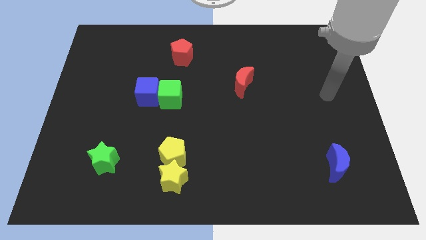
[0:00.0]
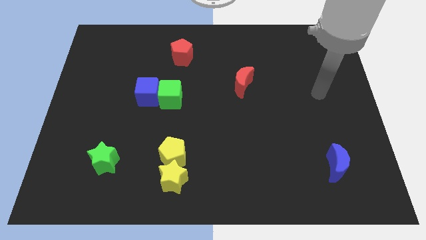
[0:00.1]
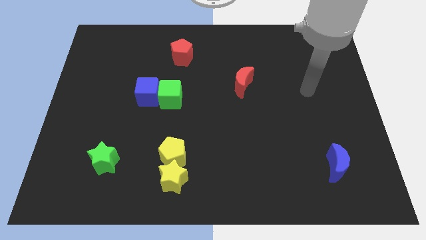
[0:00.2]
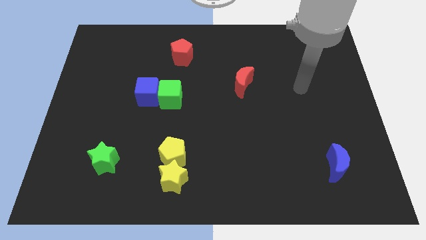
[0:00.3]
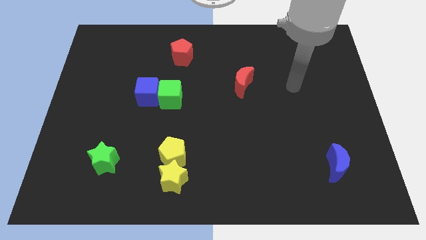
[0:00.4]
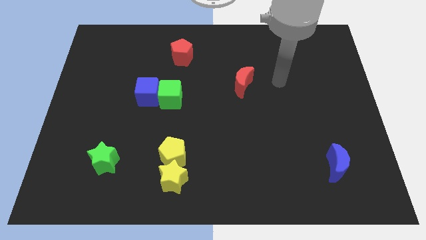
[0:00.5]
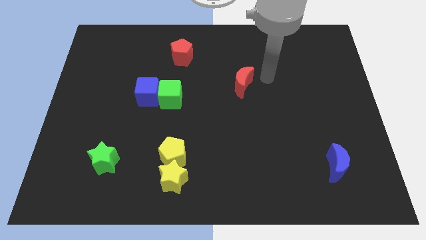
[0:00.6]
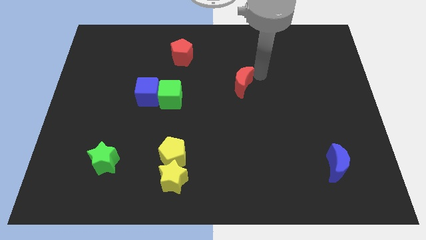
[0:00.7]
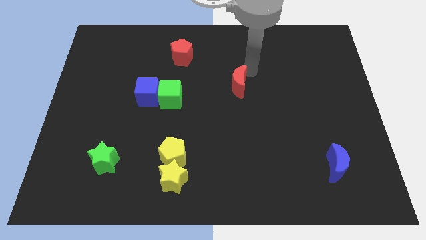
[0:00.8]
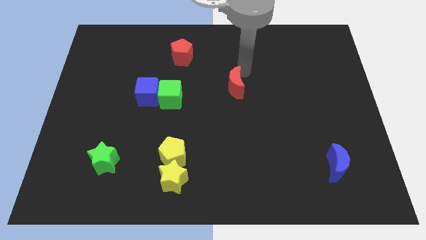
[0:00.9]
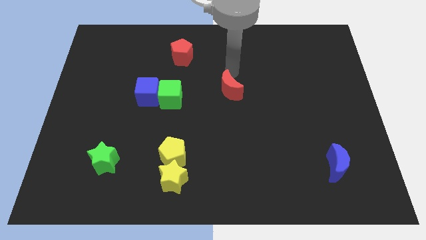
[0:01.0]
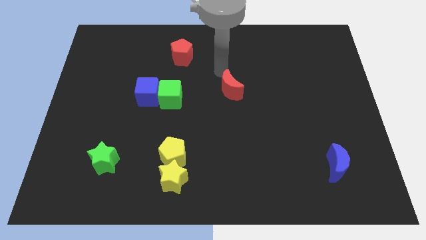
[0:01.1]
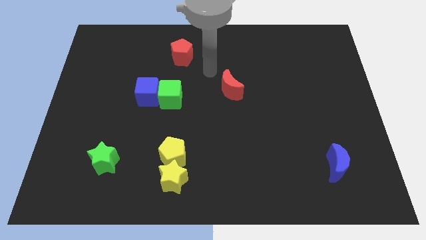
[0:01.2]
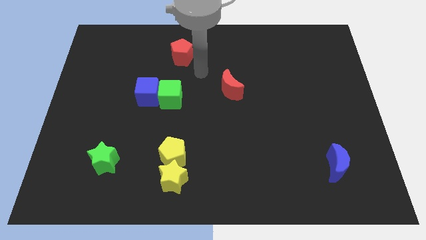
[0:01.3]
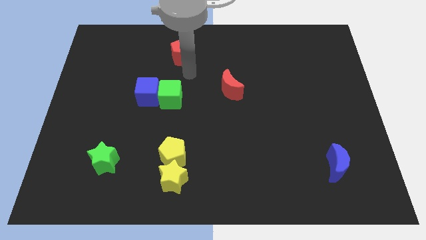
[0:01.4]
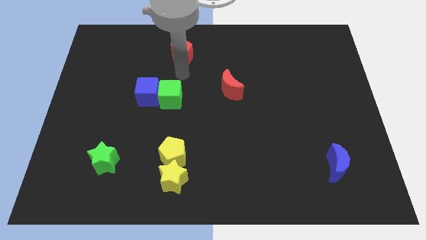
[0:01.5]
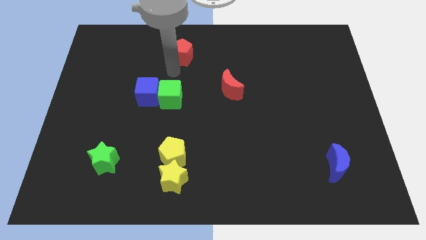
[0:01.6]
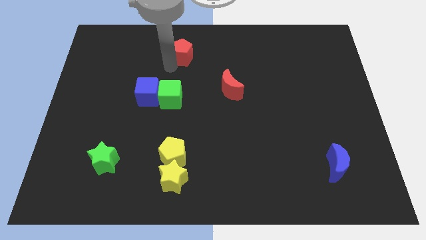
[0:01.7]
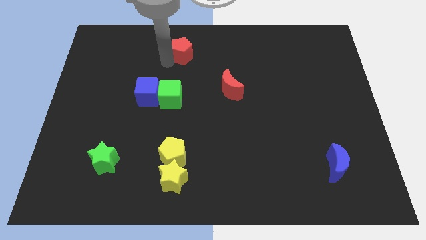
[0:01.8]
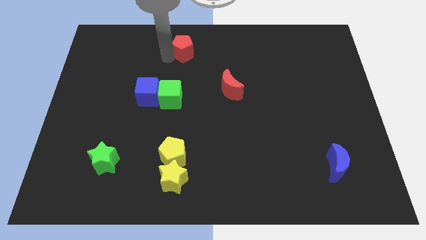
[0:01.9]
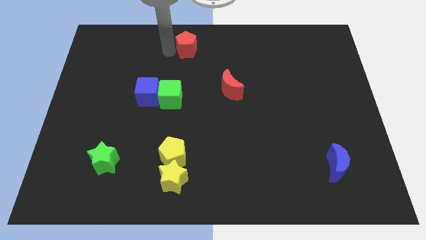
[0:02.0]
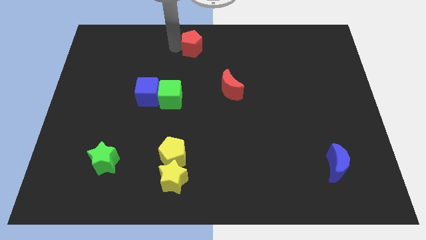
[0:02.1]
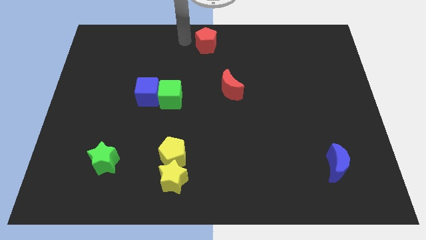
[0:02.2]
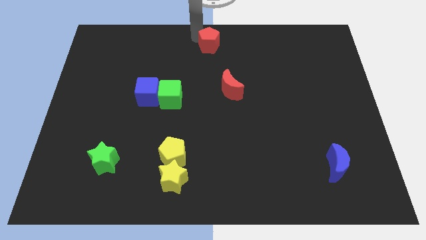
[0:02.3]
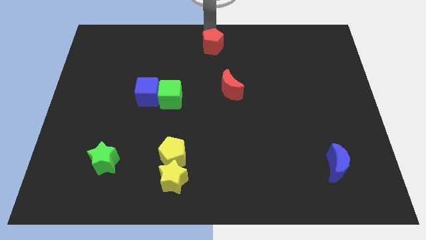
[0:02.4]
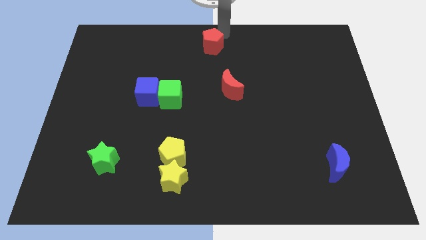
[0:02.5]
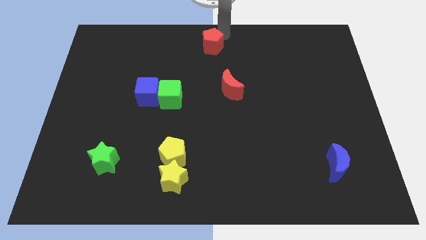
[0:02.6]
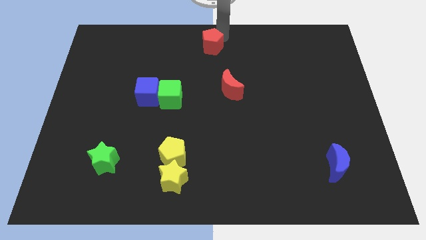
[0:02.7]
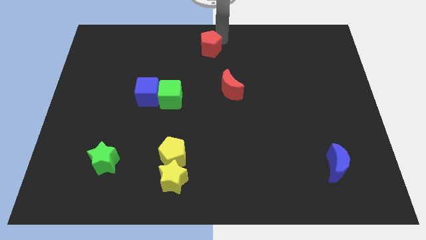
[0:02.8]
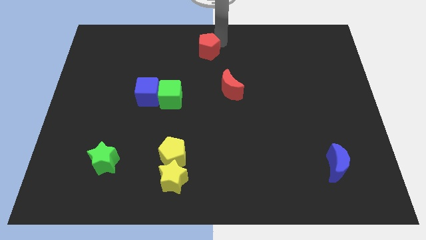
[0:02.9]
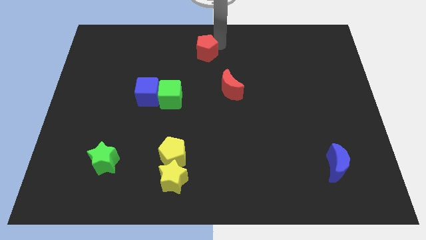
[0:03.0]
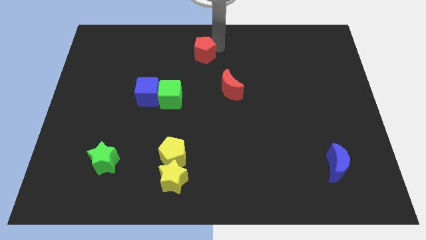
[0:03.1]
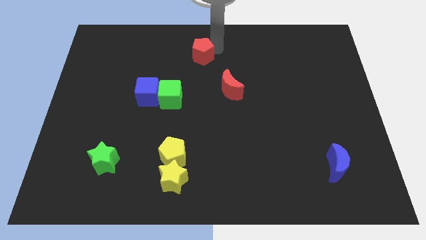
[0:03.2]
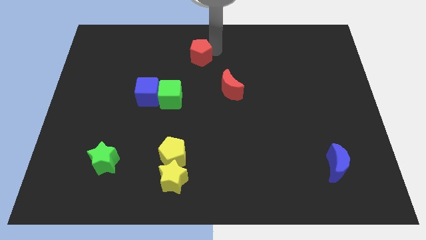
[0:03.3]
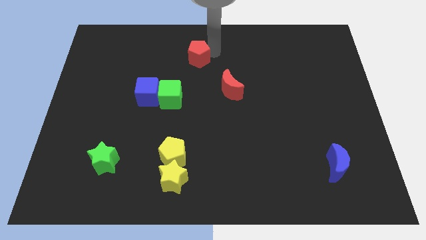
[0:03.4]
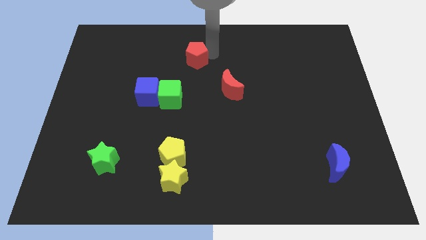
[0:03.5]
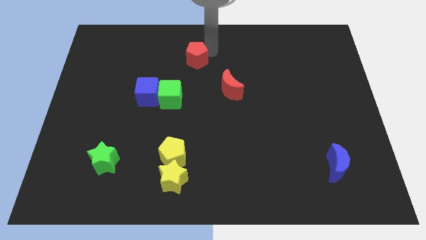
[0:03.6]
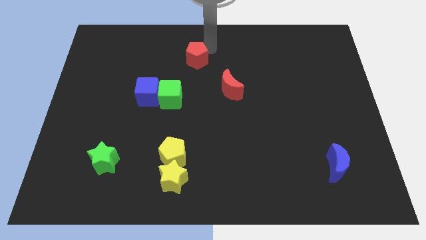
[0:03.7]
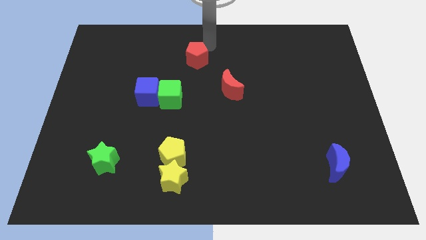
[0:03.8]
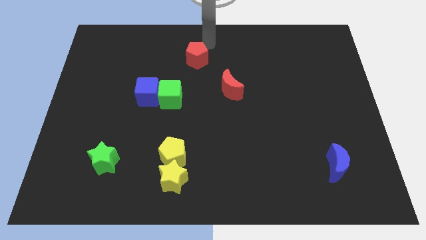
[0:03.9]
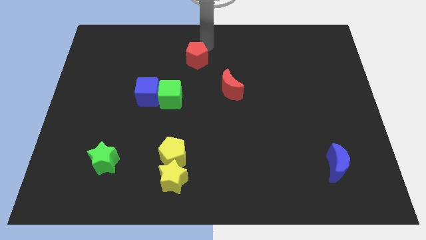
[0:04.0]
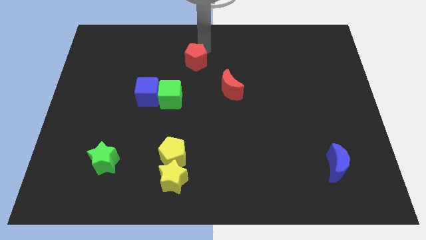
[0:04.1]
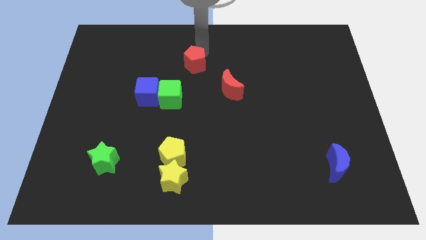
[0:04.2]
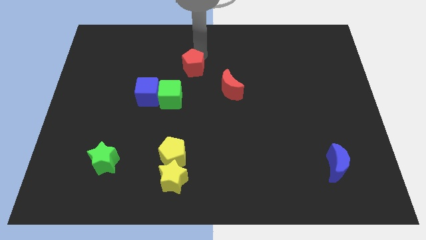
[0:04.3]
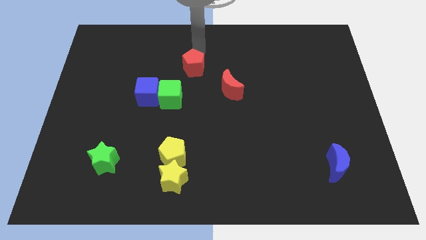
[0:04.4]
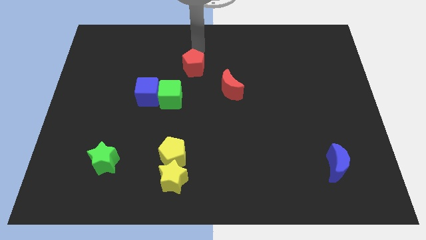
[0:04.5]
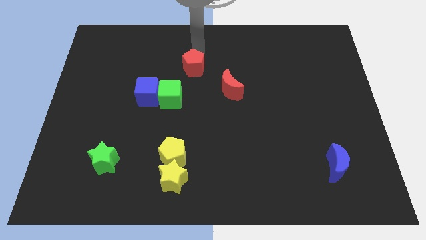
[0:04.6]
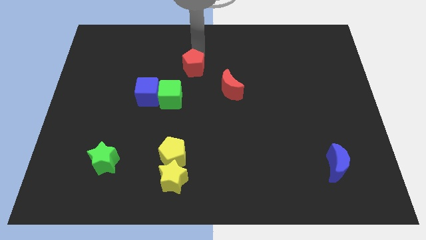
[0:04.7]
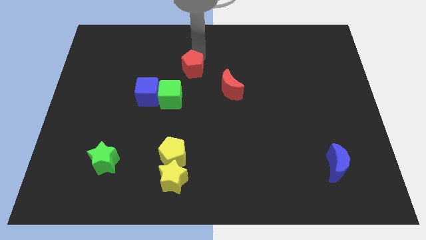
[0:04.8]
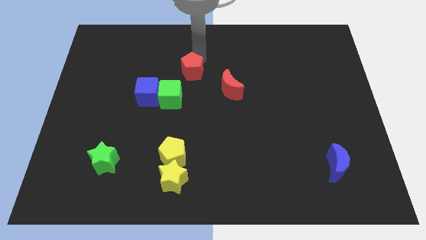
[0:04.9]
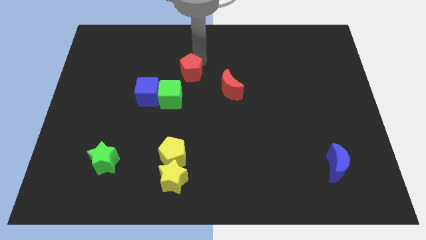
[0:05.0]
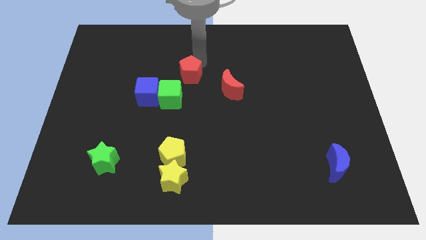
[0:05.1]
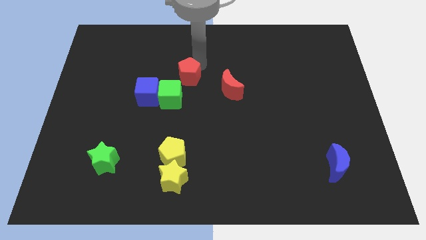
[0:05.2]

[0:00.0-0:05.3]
slide the red pentagon to the left side of the red moon
